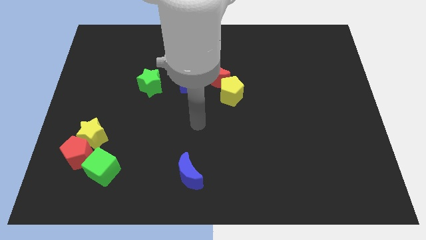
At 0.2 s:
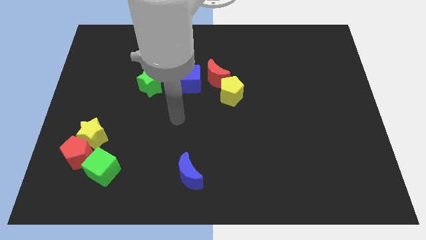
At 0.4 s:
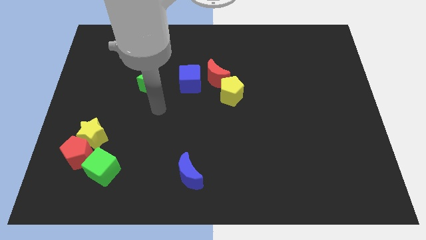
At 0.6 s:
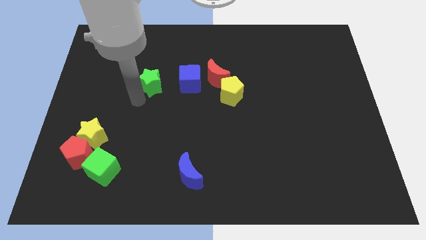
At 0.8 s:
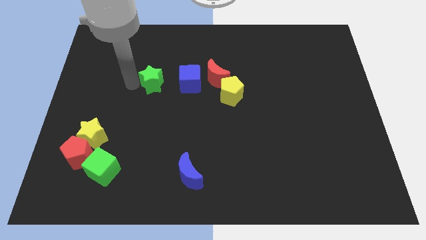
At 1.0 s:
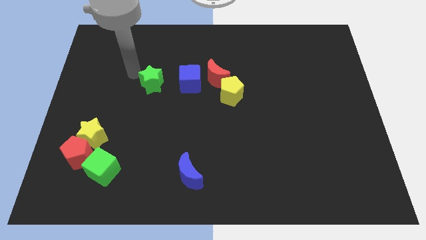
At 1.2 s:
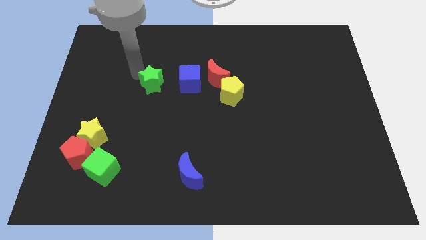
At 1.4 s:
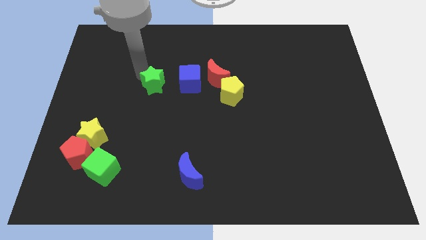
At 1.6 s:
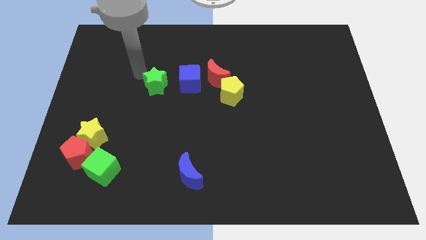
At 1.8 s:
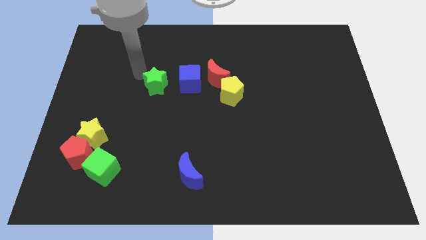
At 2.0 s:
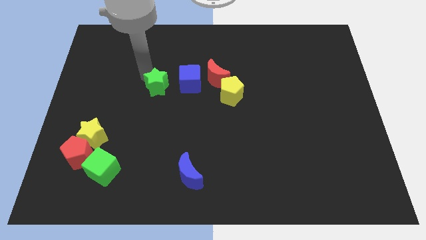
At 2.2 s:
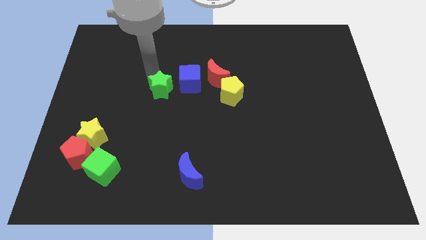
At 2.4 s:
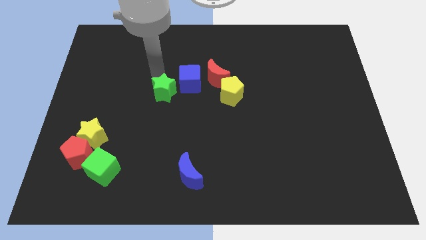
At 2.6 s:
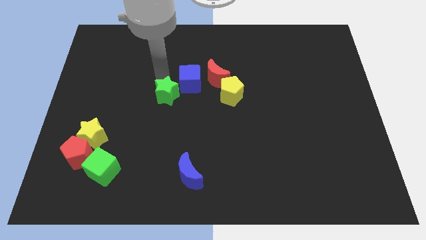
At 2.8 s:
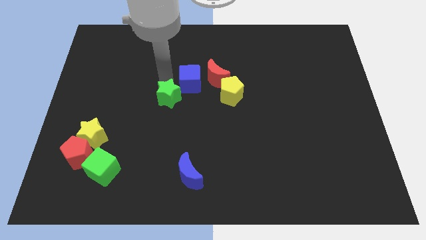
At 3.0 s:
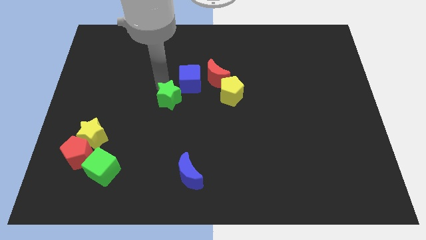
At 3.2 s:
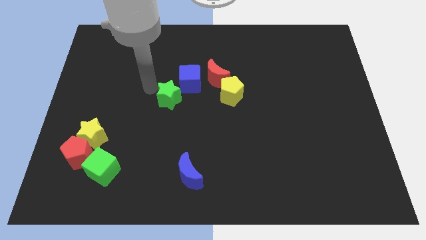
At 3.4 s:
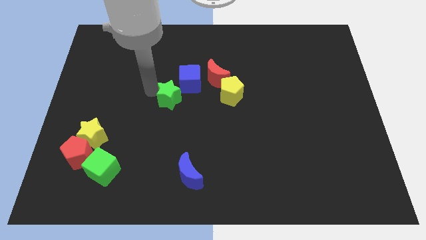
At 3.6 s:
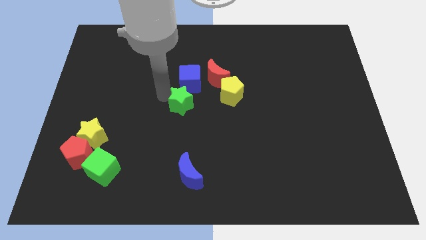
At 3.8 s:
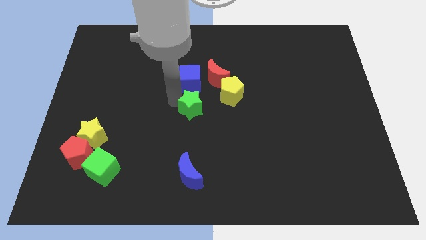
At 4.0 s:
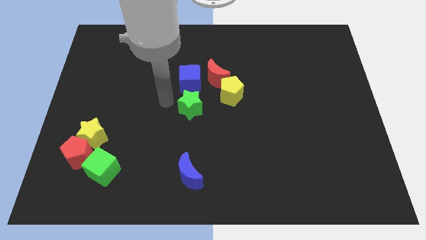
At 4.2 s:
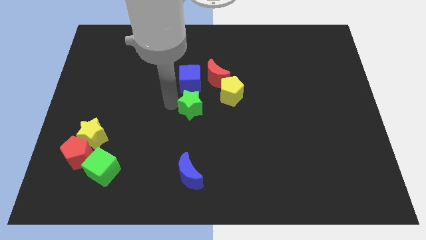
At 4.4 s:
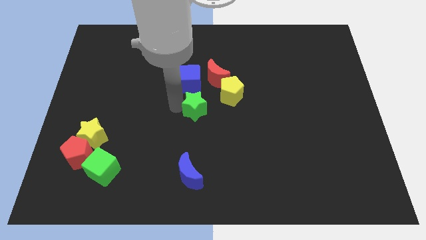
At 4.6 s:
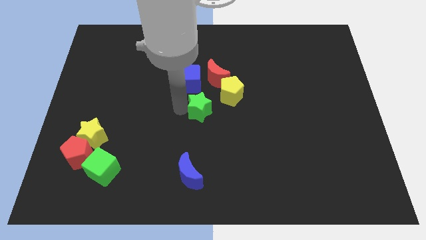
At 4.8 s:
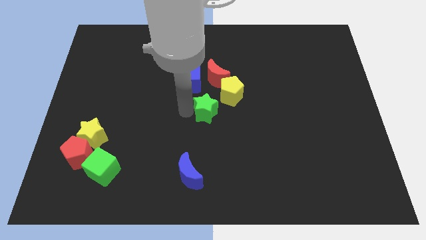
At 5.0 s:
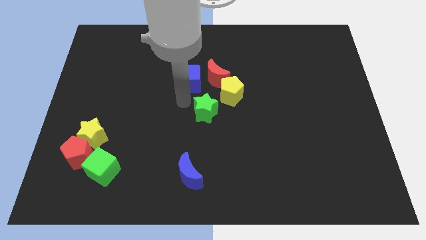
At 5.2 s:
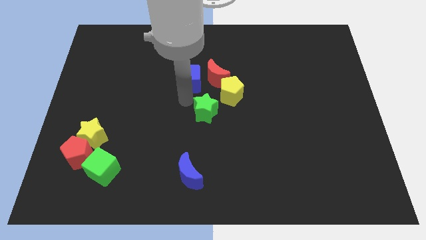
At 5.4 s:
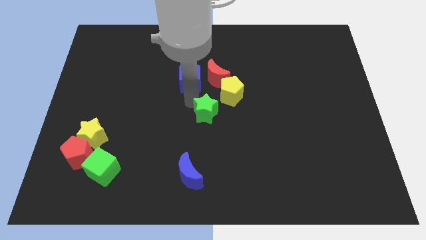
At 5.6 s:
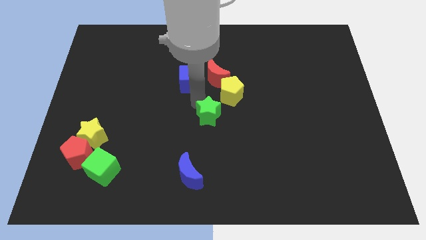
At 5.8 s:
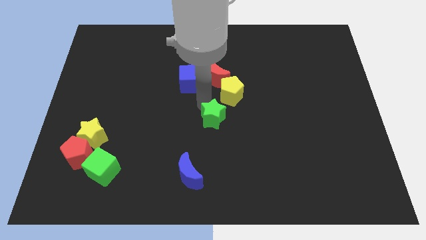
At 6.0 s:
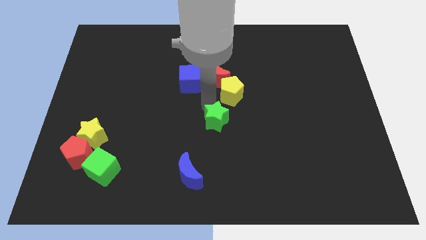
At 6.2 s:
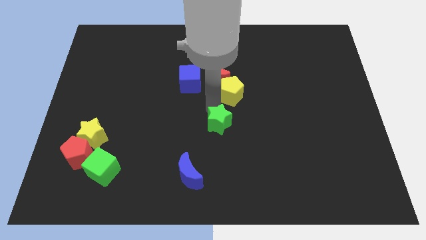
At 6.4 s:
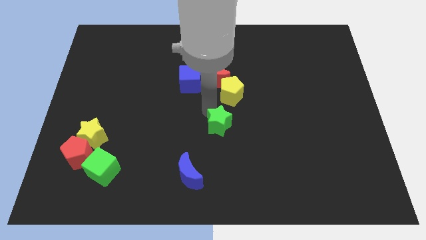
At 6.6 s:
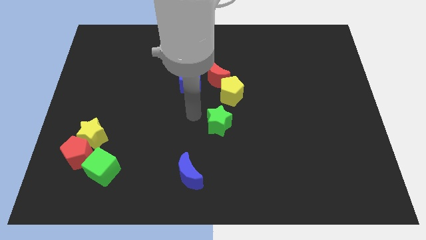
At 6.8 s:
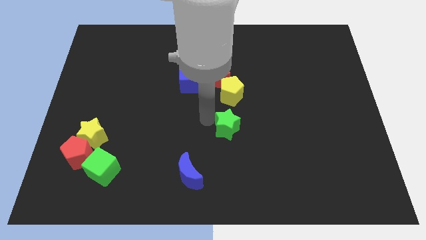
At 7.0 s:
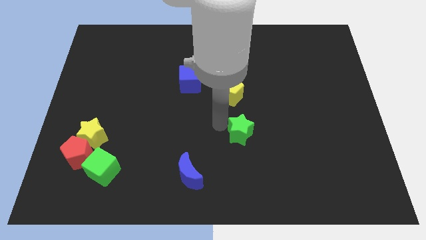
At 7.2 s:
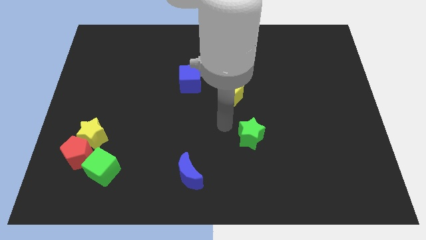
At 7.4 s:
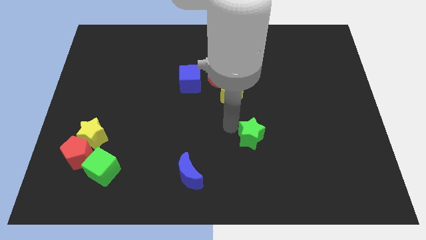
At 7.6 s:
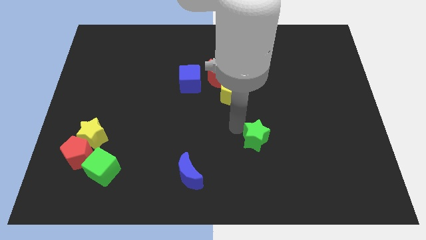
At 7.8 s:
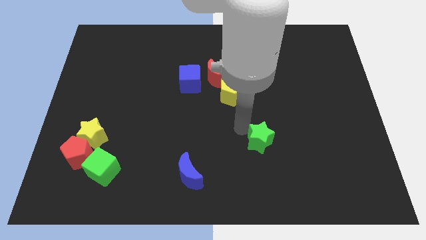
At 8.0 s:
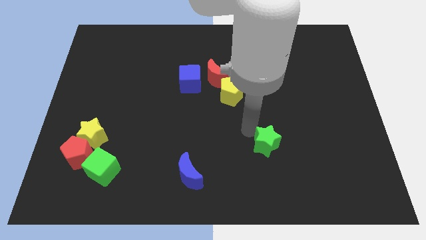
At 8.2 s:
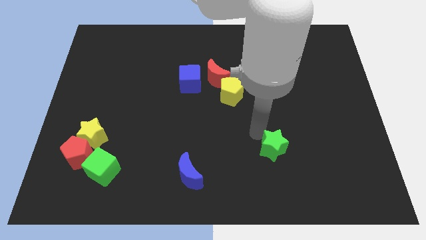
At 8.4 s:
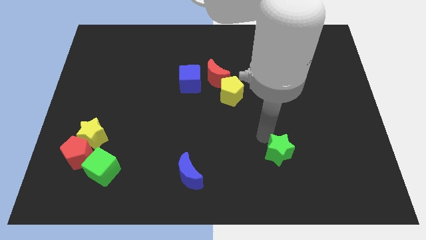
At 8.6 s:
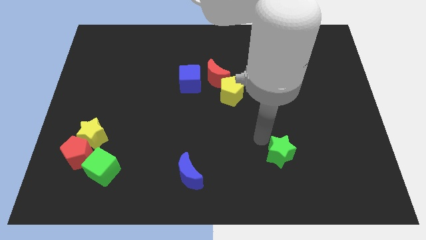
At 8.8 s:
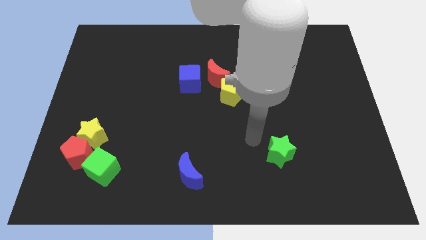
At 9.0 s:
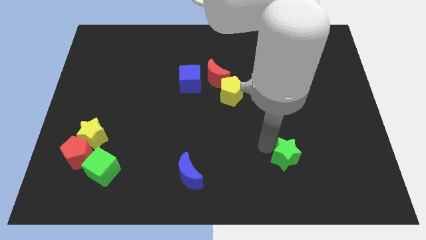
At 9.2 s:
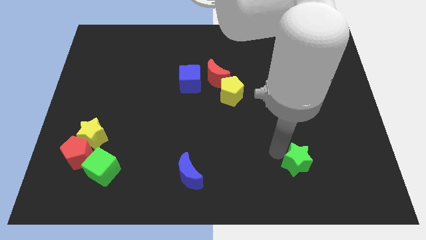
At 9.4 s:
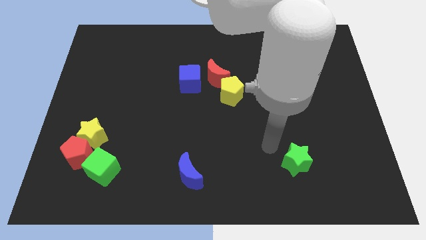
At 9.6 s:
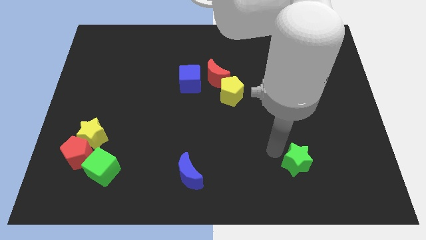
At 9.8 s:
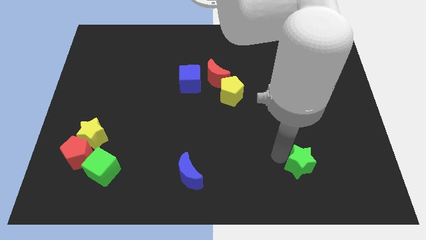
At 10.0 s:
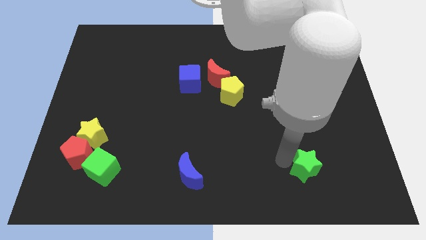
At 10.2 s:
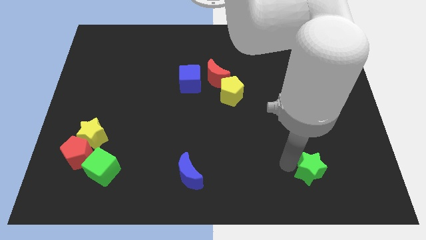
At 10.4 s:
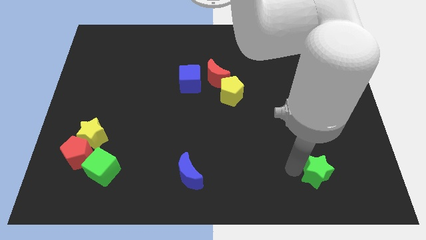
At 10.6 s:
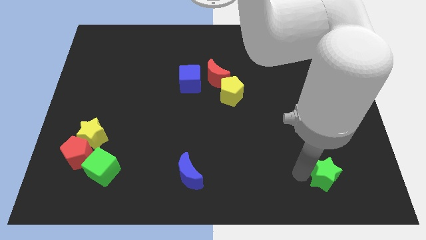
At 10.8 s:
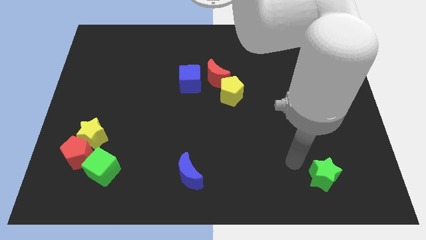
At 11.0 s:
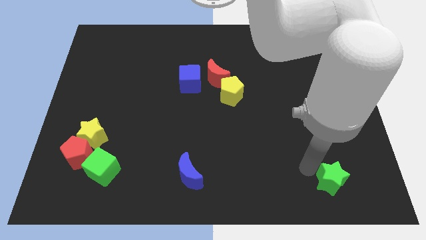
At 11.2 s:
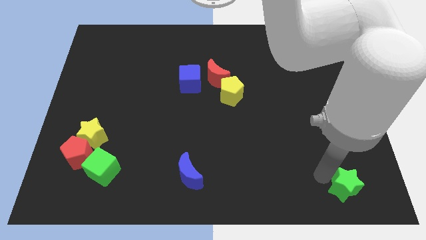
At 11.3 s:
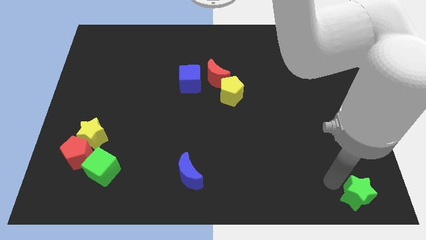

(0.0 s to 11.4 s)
push the green star to the bottom right of the board

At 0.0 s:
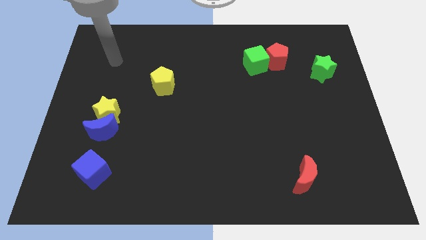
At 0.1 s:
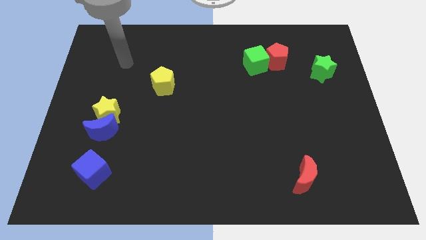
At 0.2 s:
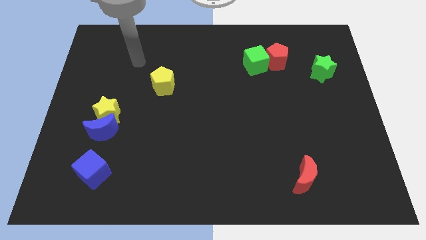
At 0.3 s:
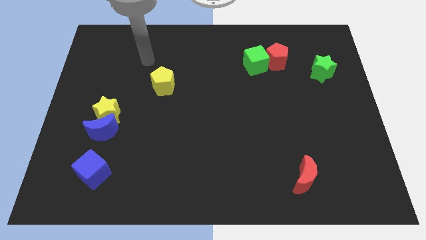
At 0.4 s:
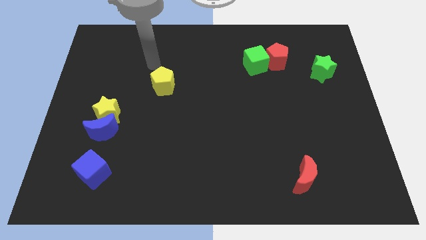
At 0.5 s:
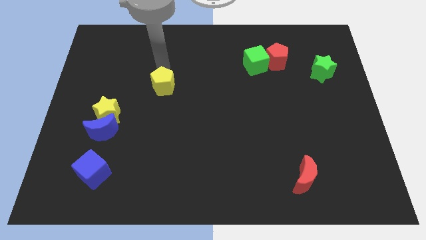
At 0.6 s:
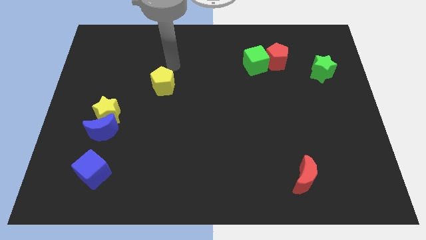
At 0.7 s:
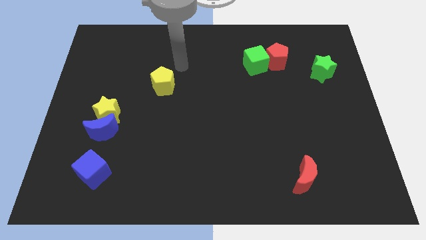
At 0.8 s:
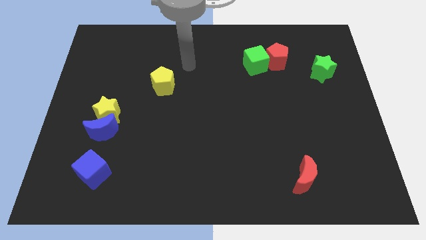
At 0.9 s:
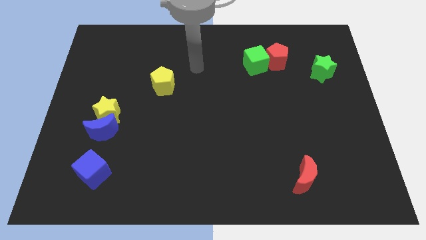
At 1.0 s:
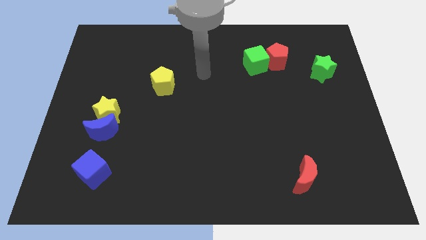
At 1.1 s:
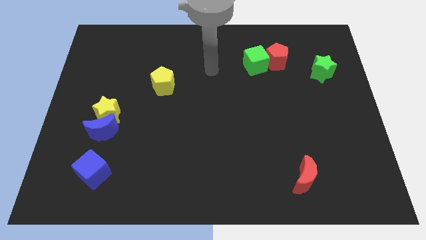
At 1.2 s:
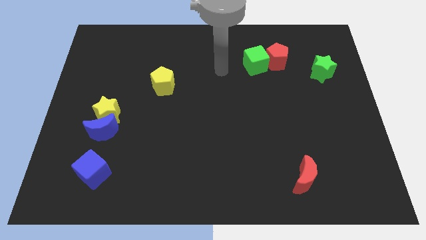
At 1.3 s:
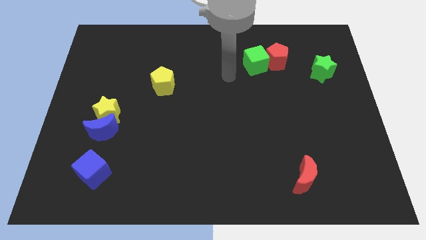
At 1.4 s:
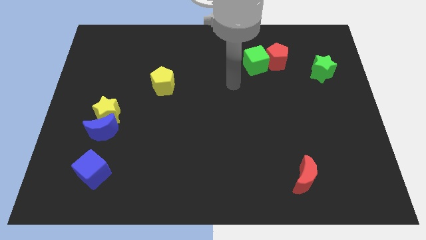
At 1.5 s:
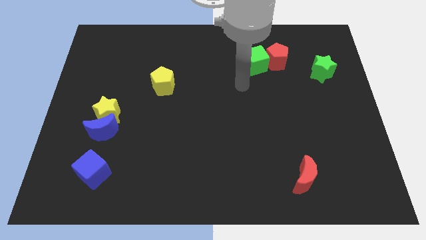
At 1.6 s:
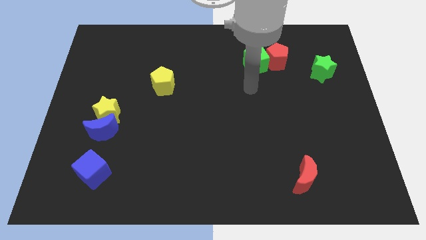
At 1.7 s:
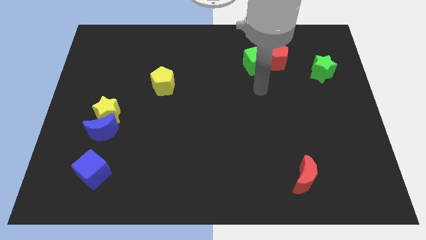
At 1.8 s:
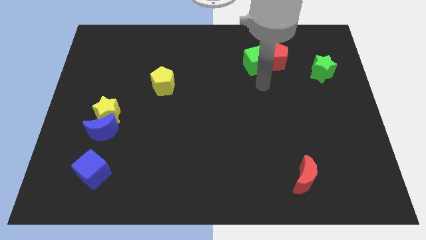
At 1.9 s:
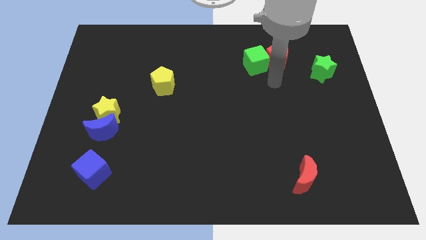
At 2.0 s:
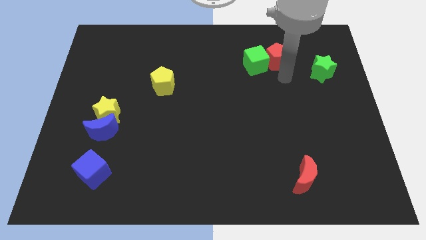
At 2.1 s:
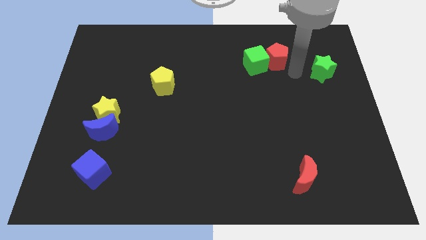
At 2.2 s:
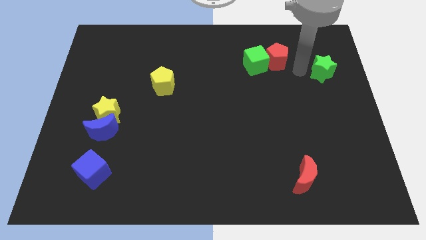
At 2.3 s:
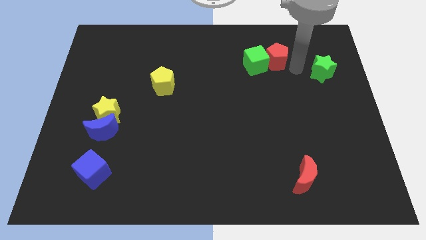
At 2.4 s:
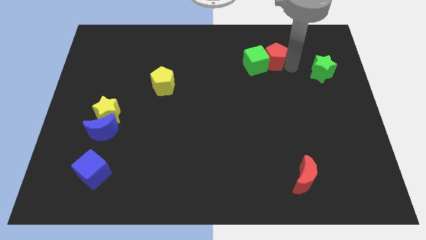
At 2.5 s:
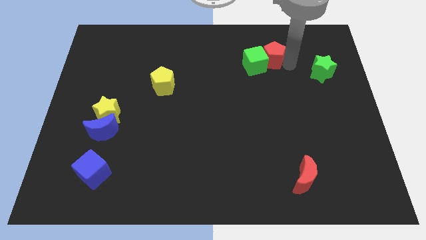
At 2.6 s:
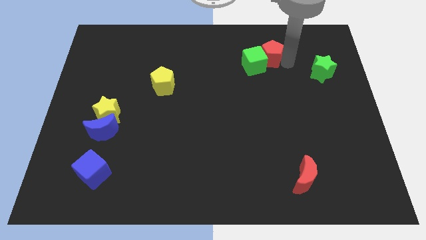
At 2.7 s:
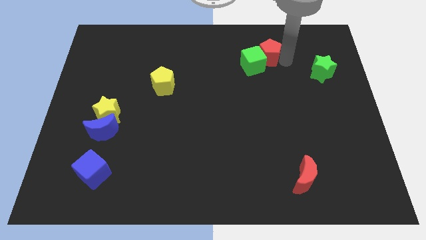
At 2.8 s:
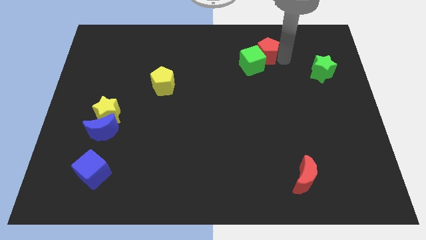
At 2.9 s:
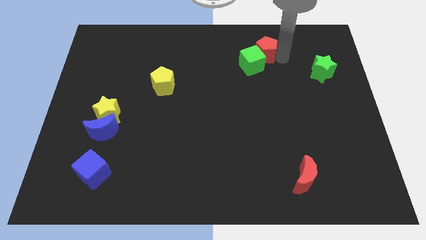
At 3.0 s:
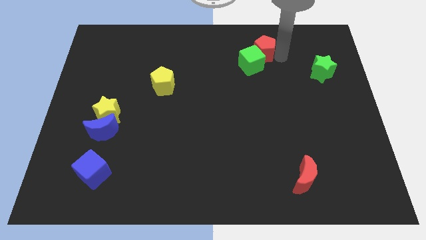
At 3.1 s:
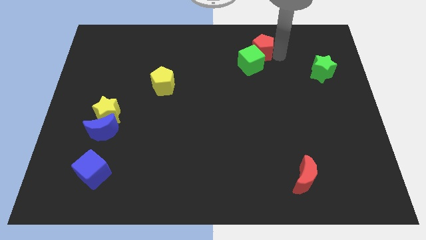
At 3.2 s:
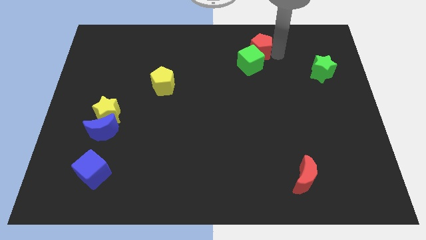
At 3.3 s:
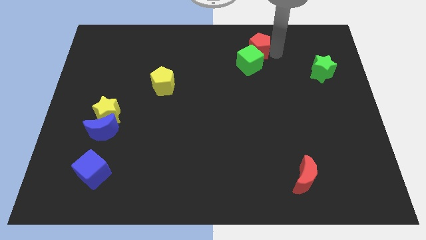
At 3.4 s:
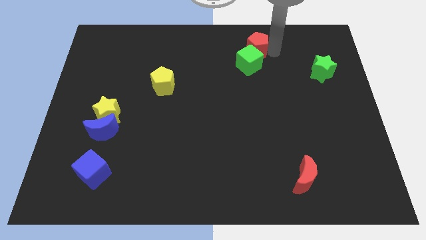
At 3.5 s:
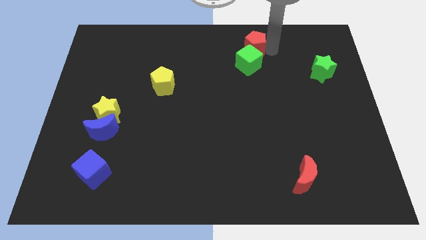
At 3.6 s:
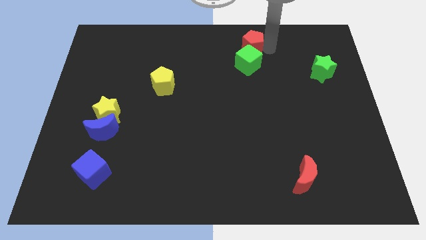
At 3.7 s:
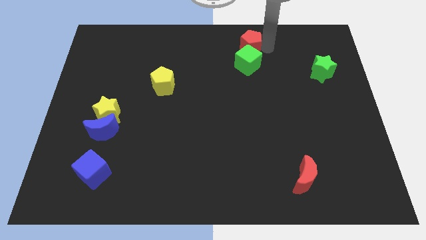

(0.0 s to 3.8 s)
slide the red pentagon to the top side
